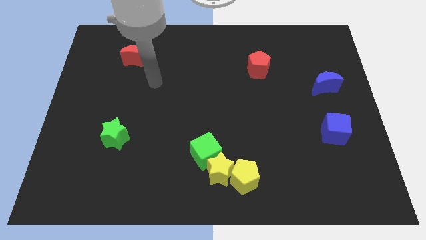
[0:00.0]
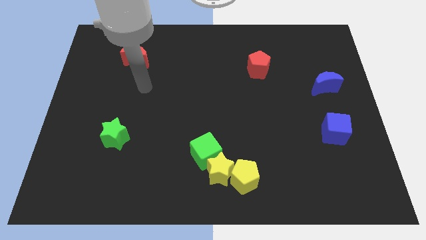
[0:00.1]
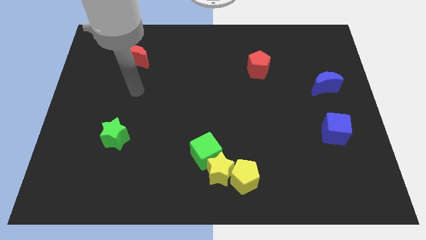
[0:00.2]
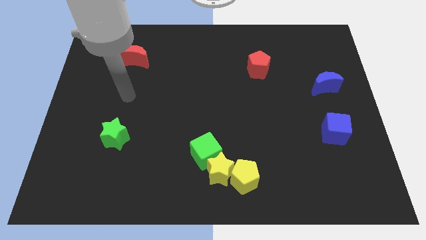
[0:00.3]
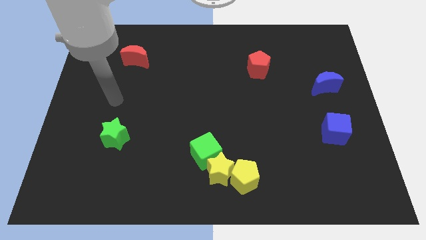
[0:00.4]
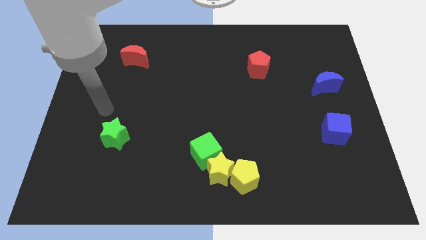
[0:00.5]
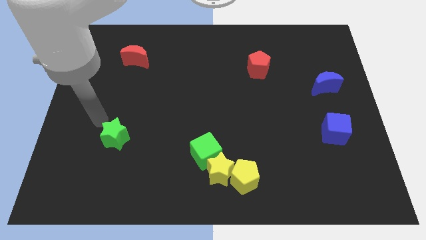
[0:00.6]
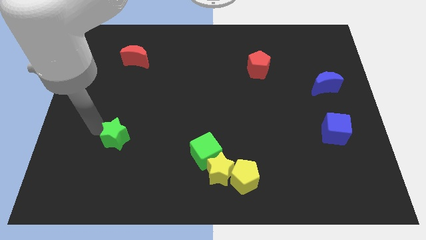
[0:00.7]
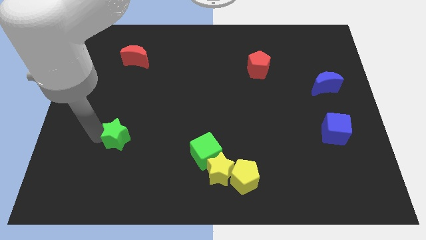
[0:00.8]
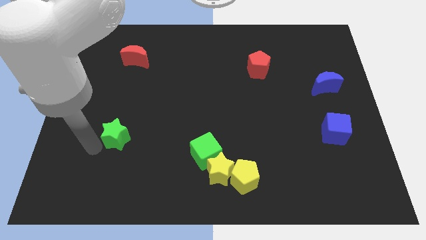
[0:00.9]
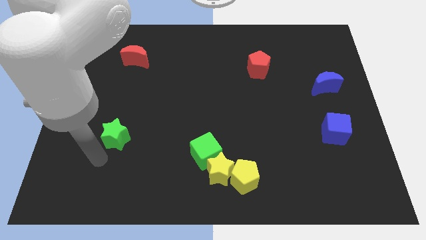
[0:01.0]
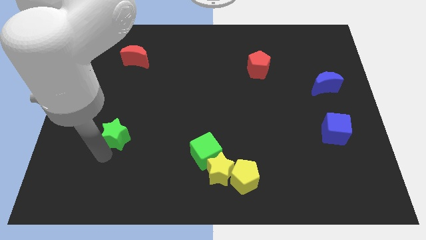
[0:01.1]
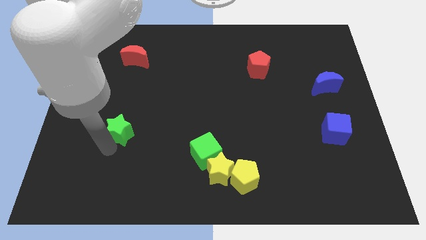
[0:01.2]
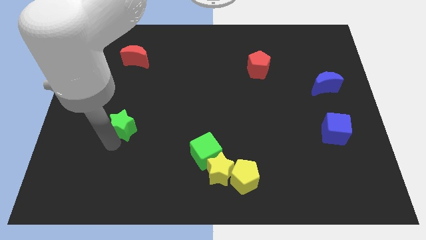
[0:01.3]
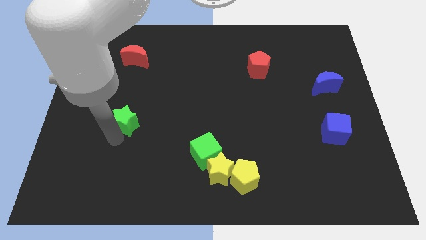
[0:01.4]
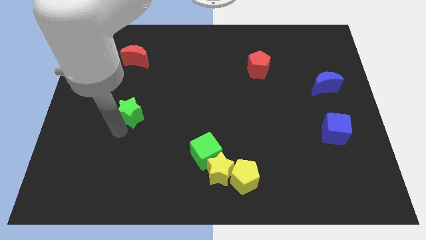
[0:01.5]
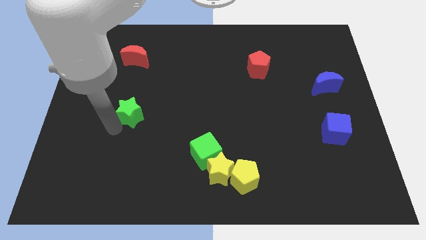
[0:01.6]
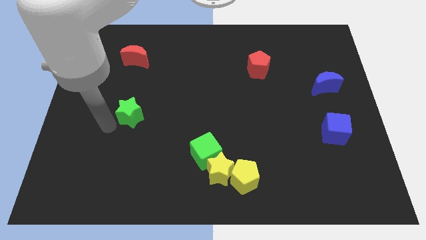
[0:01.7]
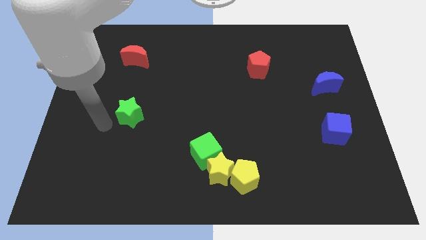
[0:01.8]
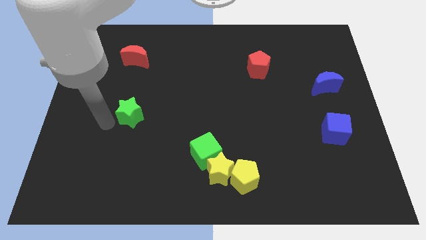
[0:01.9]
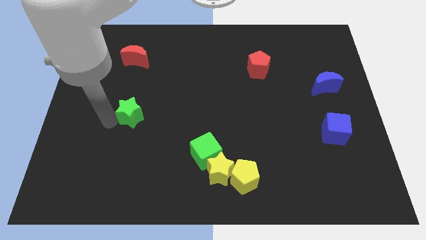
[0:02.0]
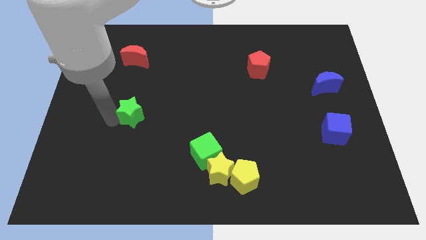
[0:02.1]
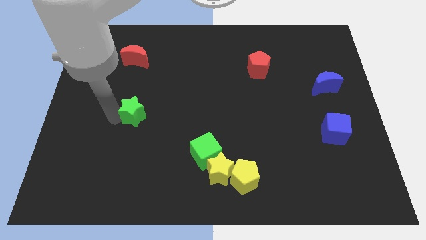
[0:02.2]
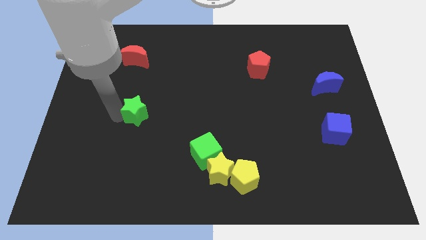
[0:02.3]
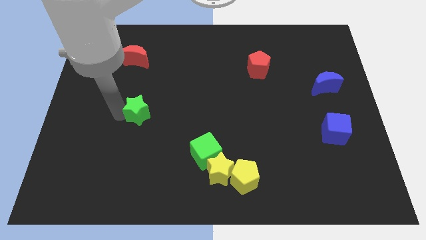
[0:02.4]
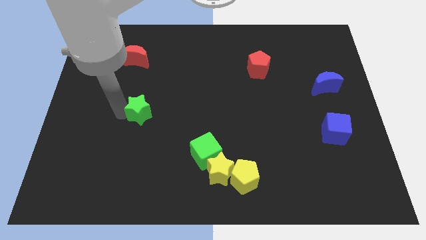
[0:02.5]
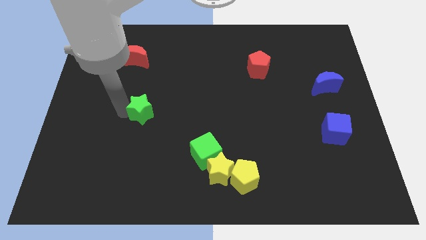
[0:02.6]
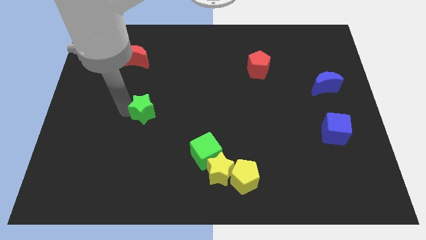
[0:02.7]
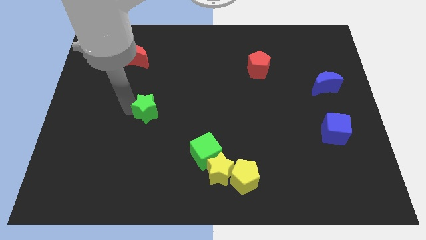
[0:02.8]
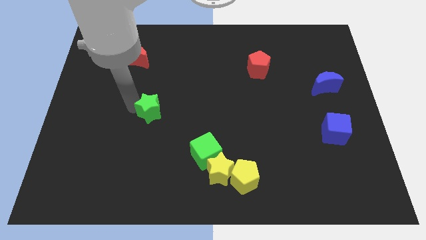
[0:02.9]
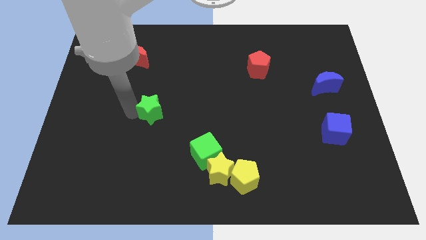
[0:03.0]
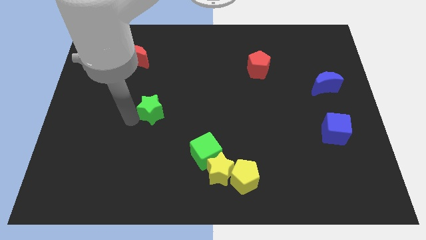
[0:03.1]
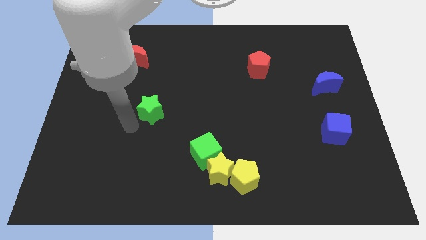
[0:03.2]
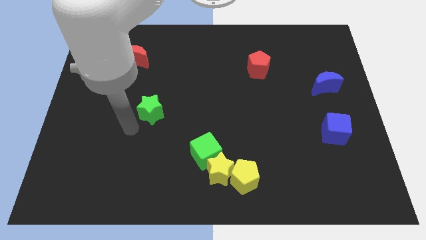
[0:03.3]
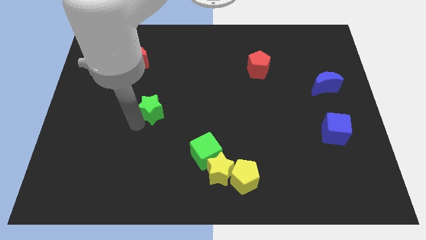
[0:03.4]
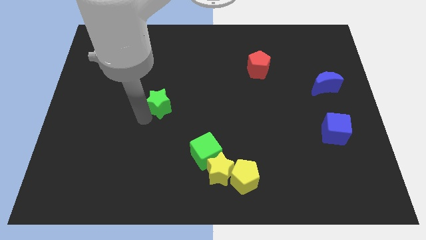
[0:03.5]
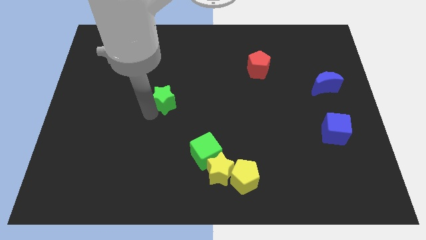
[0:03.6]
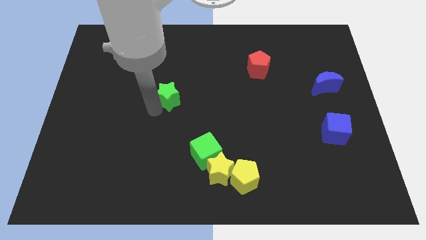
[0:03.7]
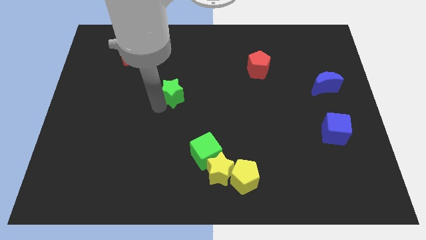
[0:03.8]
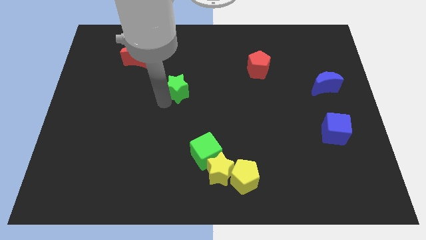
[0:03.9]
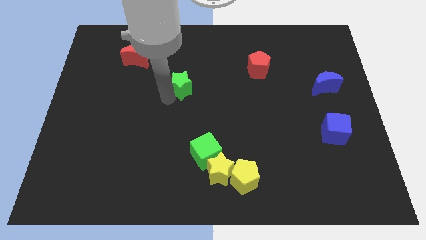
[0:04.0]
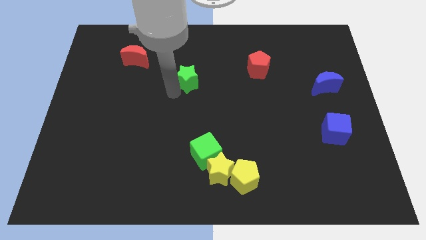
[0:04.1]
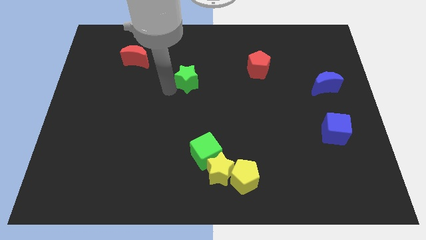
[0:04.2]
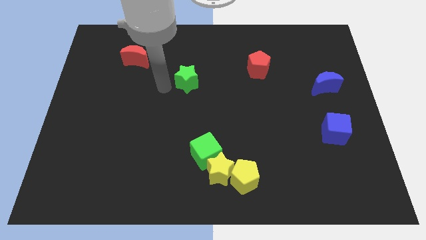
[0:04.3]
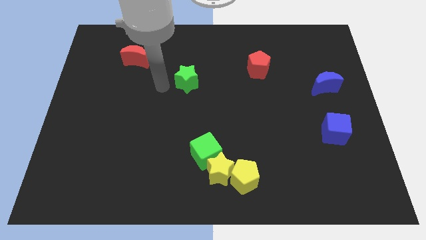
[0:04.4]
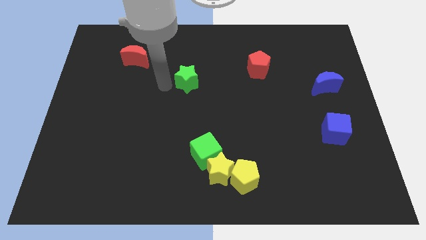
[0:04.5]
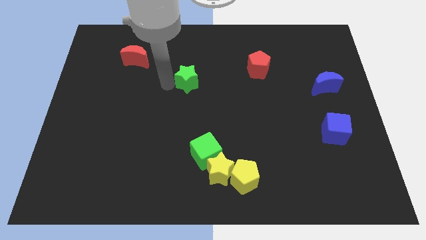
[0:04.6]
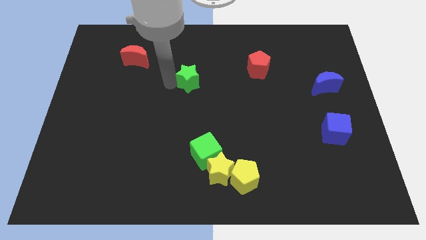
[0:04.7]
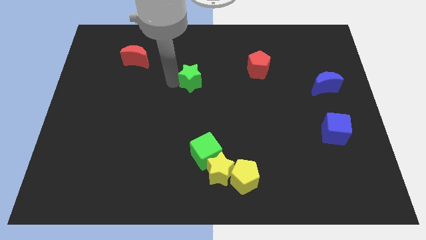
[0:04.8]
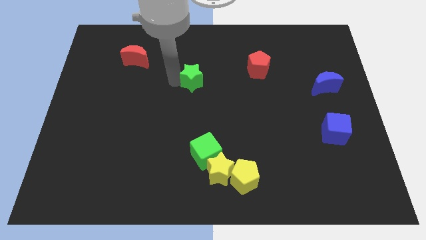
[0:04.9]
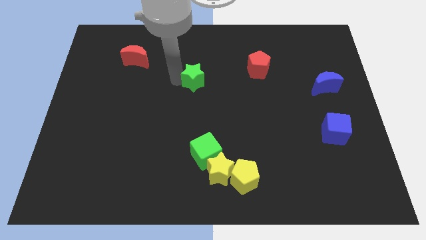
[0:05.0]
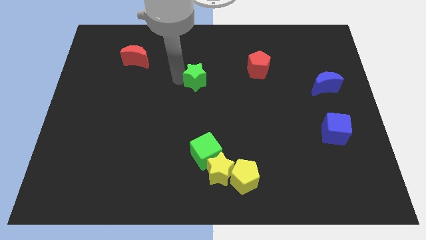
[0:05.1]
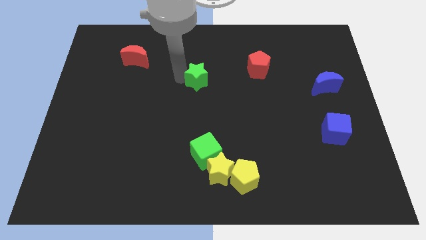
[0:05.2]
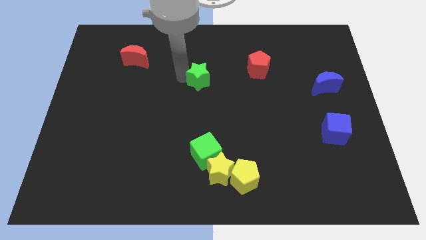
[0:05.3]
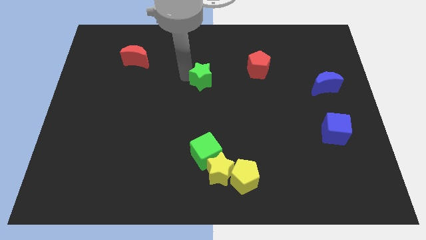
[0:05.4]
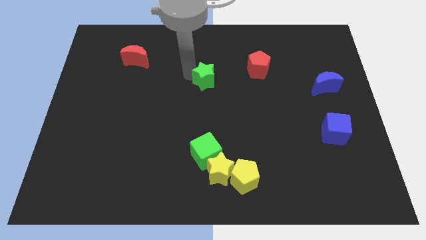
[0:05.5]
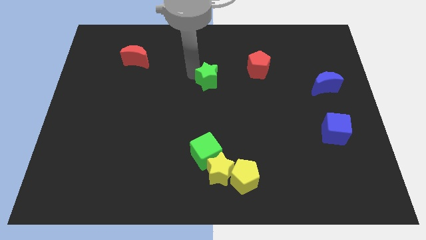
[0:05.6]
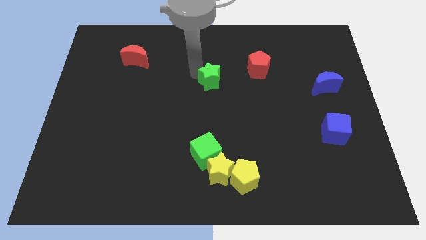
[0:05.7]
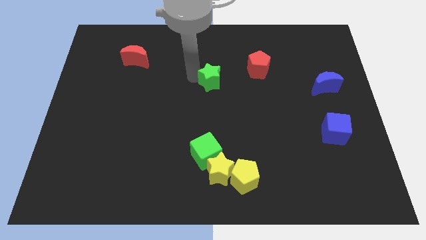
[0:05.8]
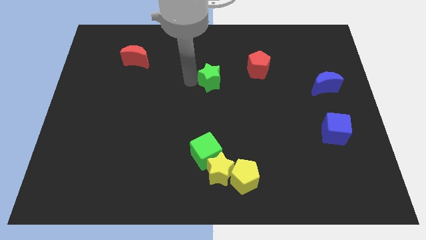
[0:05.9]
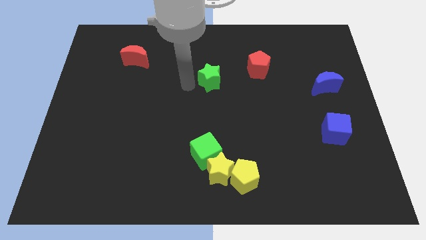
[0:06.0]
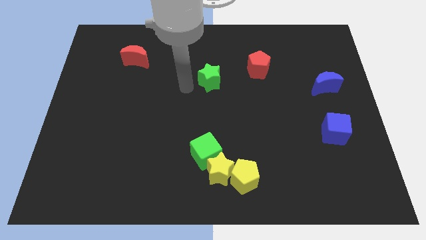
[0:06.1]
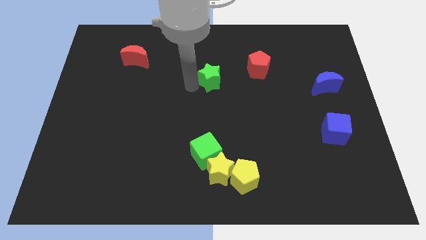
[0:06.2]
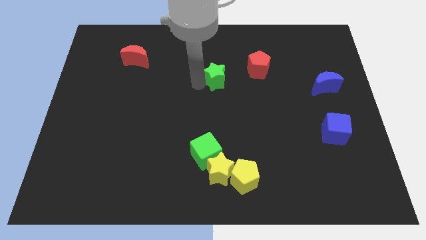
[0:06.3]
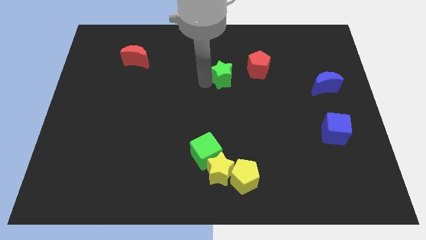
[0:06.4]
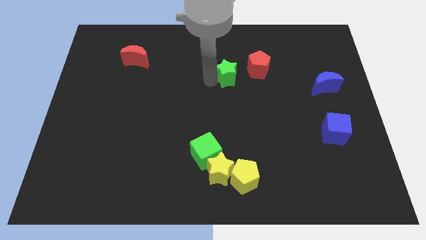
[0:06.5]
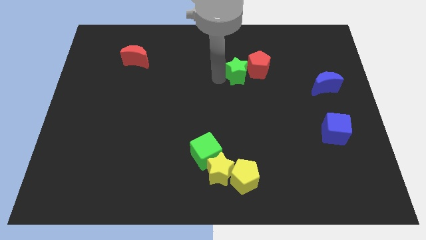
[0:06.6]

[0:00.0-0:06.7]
move the green star to the red pentagon
